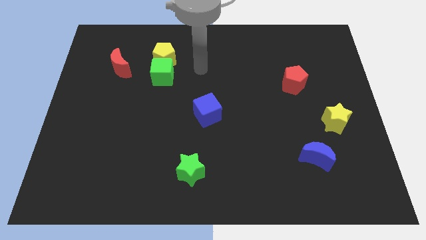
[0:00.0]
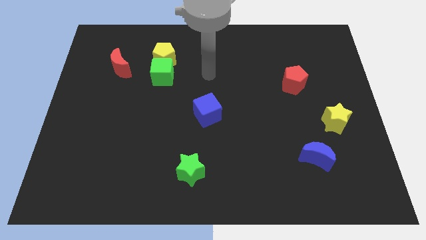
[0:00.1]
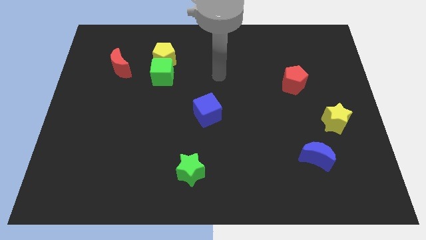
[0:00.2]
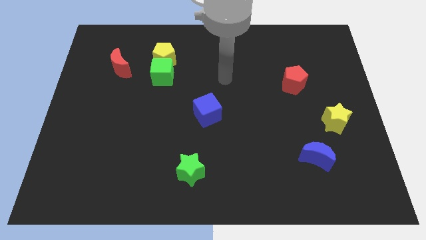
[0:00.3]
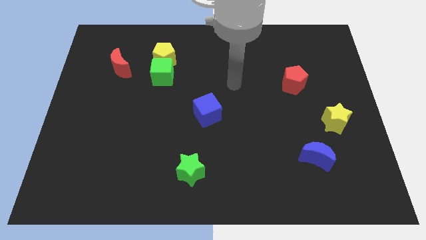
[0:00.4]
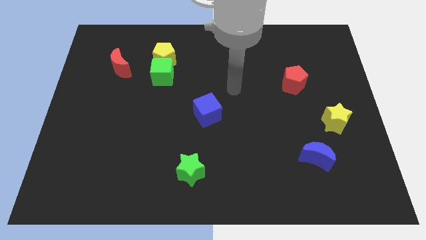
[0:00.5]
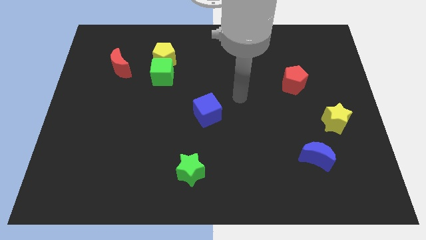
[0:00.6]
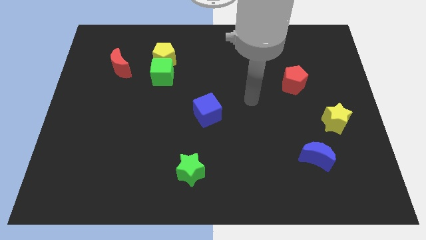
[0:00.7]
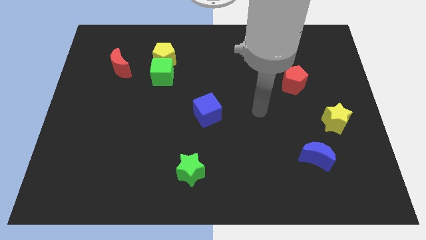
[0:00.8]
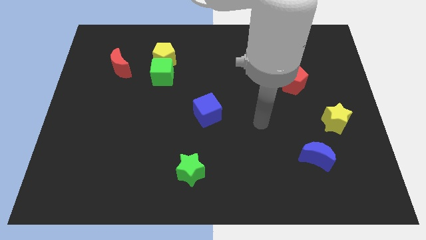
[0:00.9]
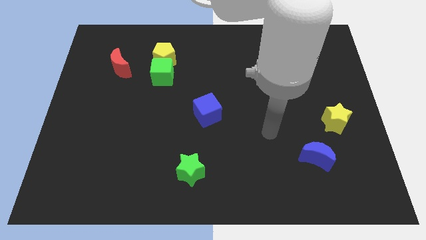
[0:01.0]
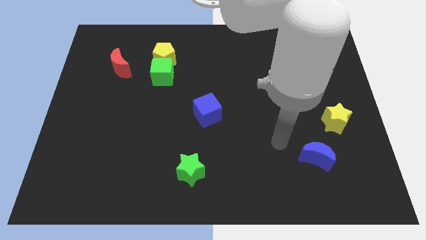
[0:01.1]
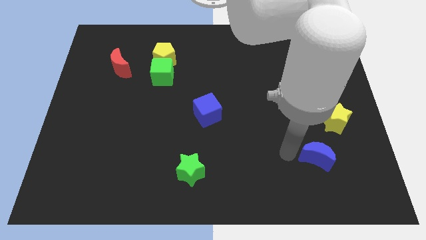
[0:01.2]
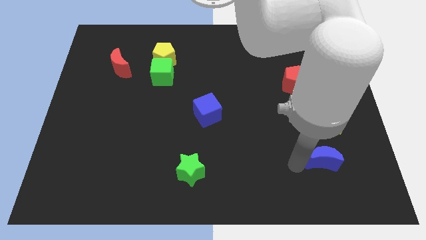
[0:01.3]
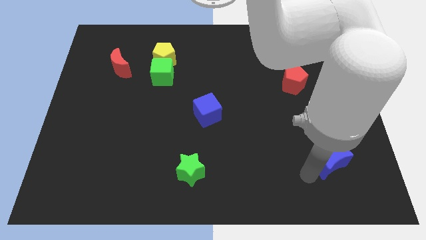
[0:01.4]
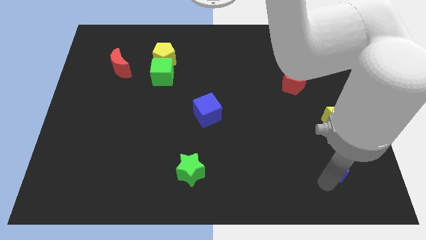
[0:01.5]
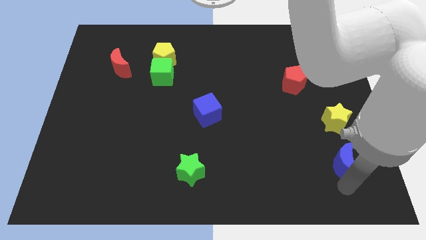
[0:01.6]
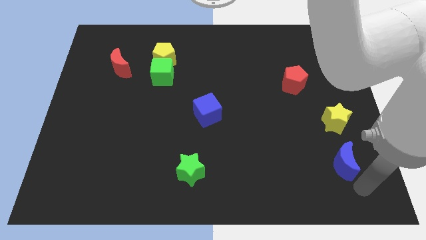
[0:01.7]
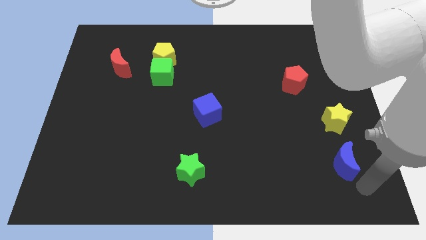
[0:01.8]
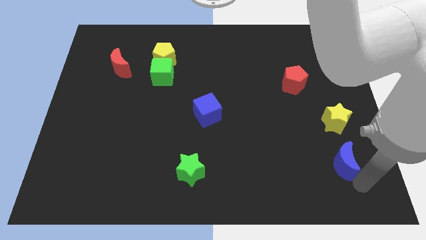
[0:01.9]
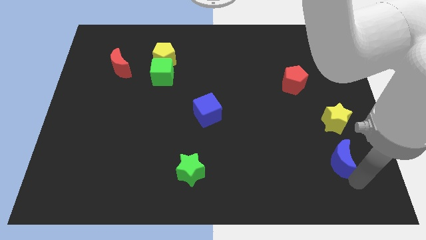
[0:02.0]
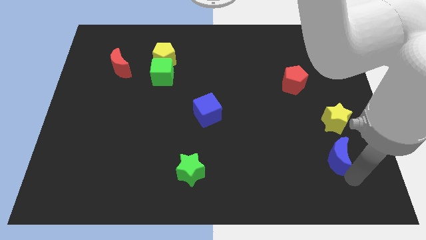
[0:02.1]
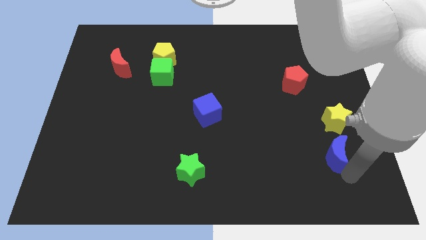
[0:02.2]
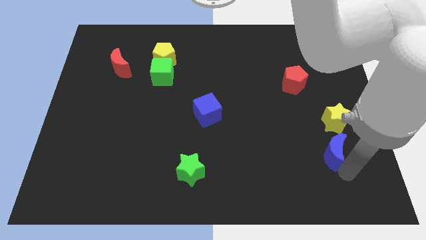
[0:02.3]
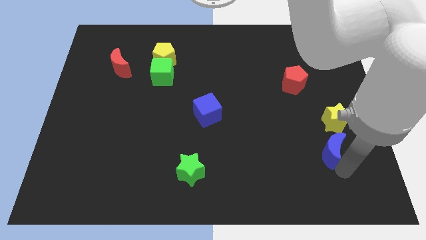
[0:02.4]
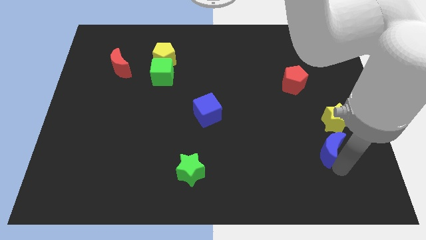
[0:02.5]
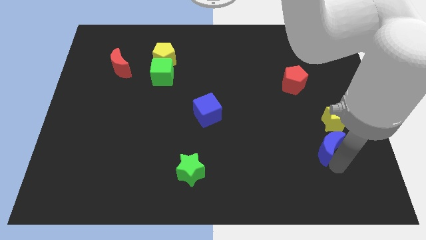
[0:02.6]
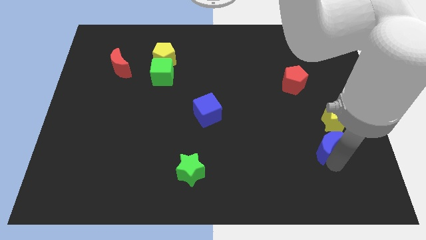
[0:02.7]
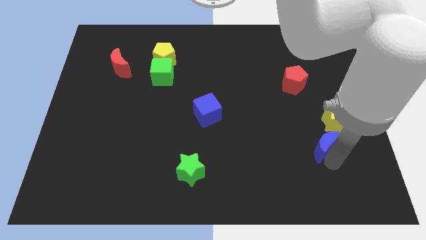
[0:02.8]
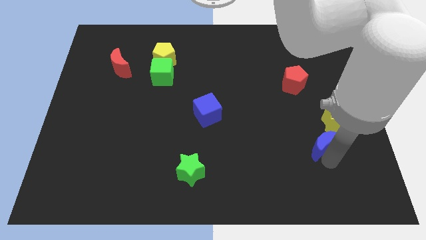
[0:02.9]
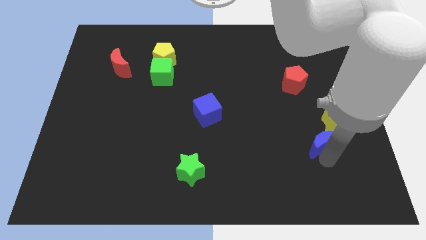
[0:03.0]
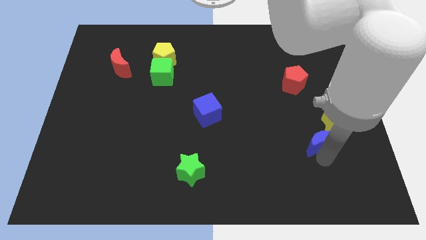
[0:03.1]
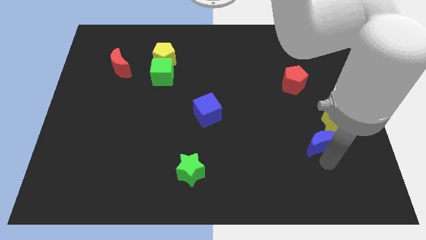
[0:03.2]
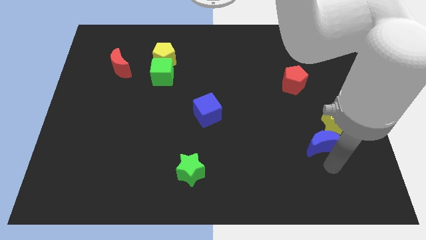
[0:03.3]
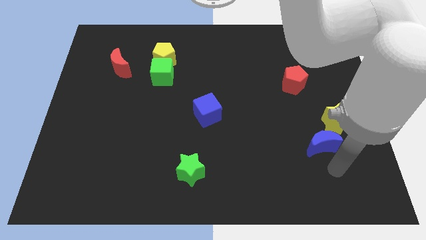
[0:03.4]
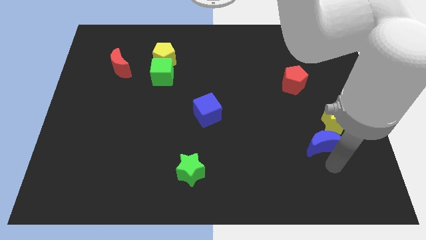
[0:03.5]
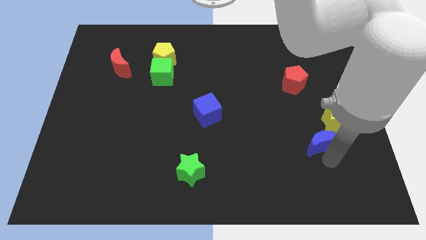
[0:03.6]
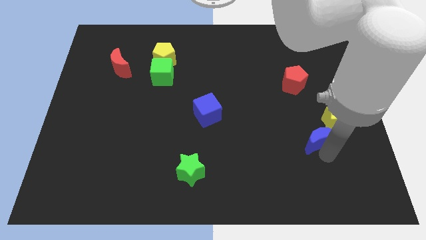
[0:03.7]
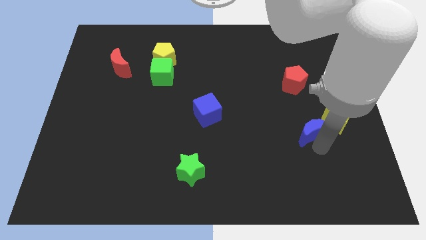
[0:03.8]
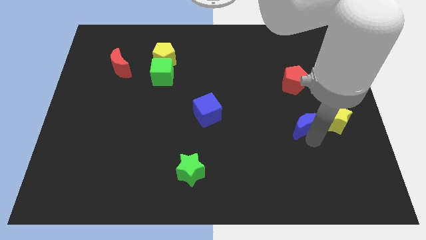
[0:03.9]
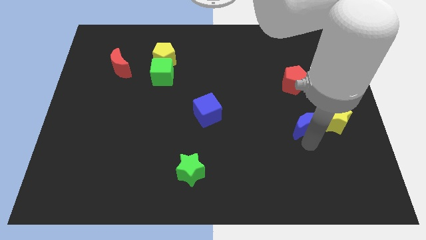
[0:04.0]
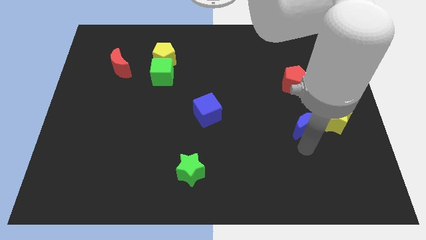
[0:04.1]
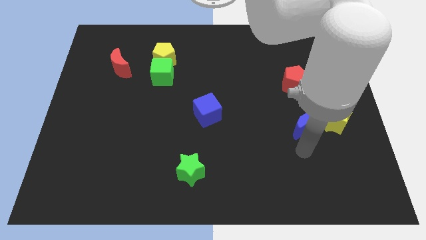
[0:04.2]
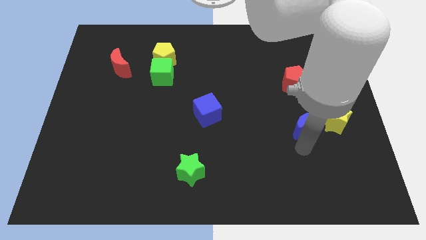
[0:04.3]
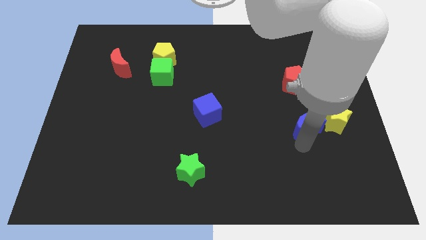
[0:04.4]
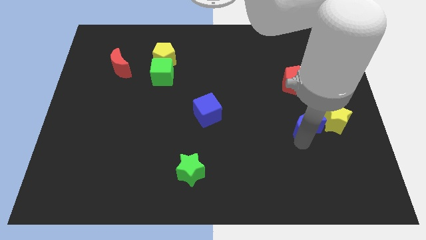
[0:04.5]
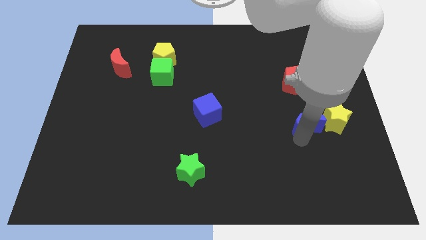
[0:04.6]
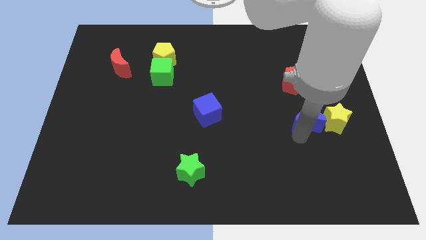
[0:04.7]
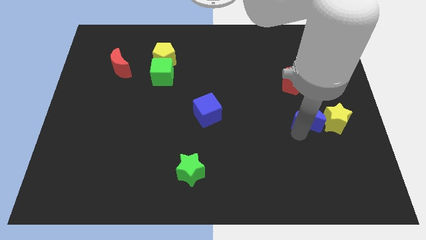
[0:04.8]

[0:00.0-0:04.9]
push the blue moon to the top left of the yellow star

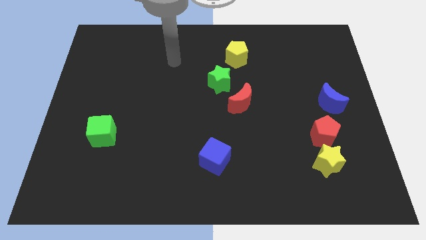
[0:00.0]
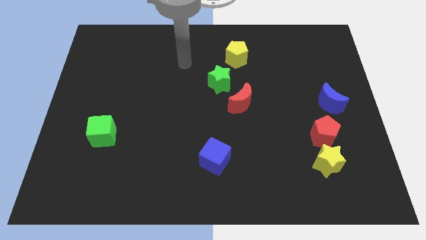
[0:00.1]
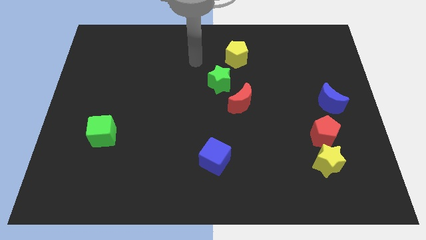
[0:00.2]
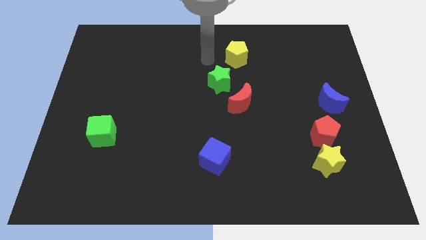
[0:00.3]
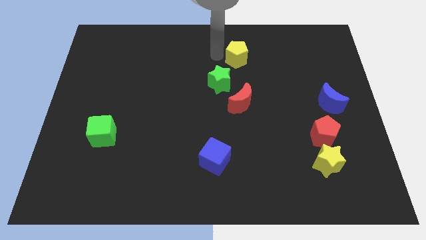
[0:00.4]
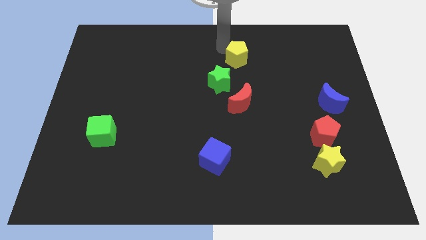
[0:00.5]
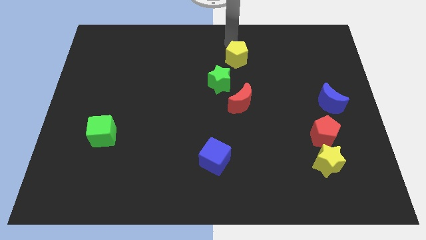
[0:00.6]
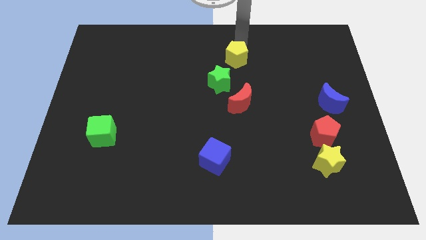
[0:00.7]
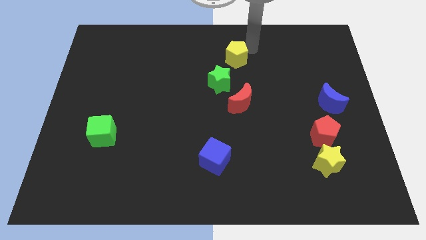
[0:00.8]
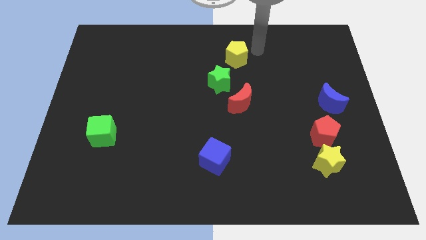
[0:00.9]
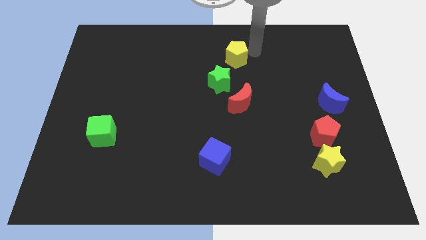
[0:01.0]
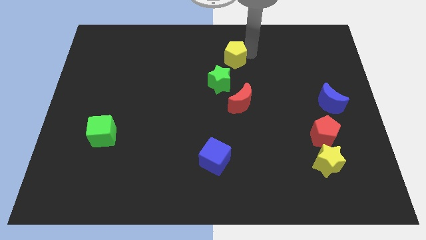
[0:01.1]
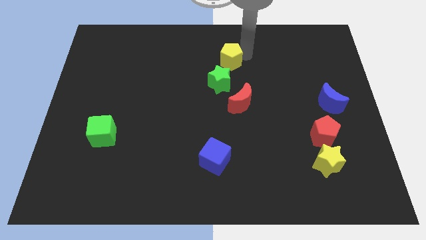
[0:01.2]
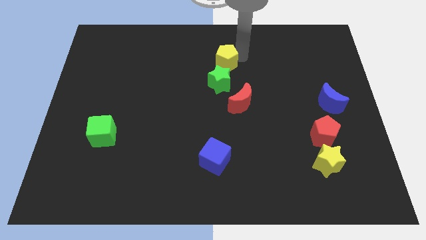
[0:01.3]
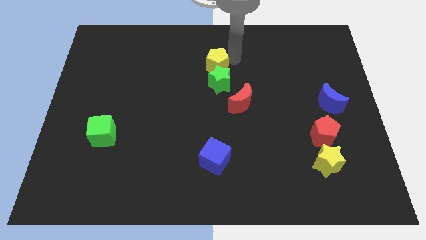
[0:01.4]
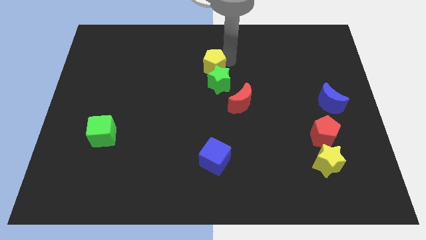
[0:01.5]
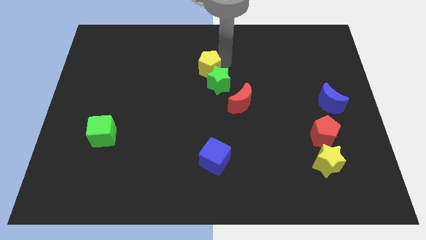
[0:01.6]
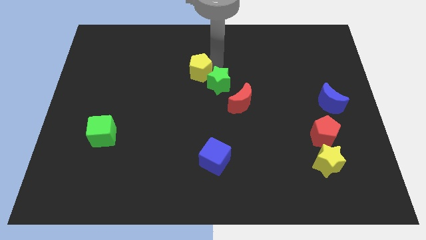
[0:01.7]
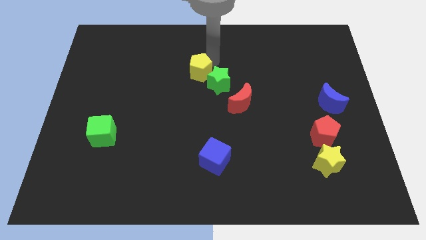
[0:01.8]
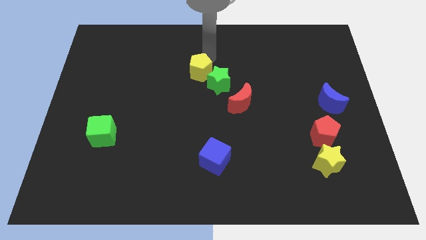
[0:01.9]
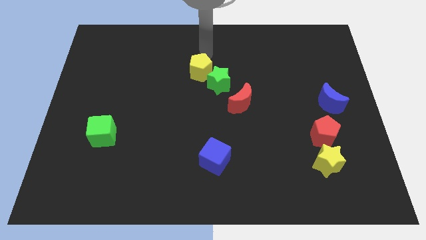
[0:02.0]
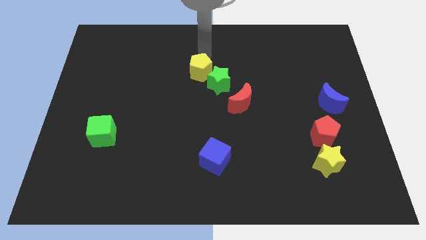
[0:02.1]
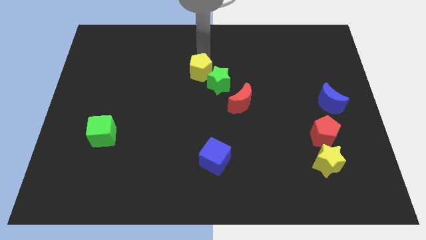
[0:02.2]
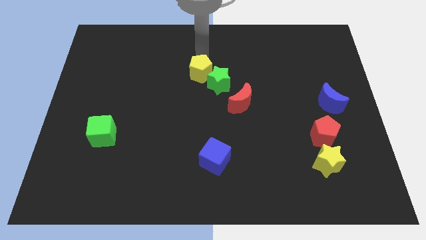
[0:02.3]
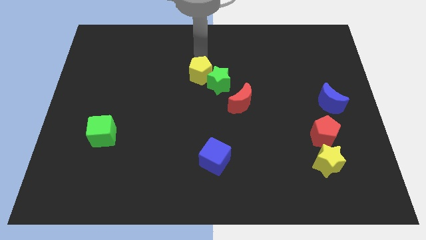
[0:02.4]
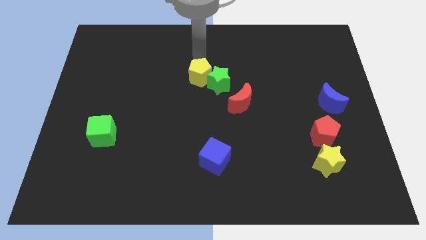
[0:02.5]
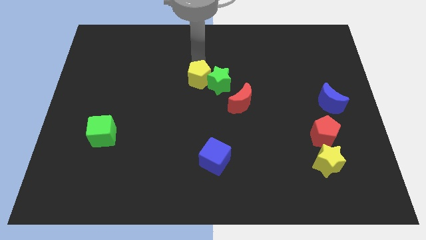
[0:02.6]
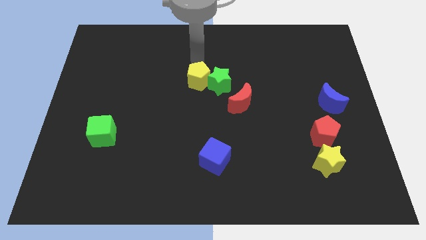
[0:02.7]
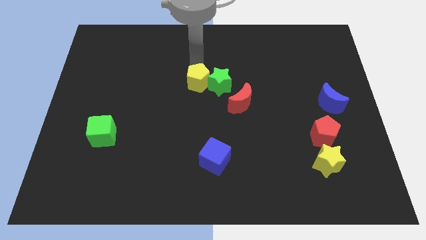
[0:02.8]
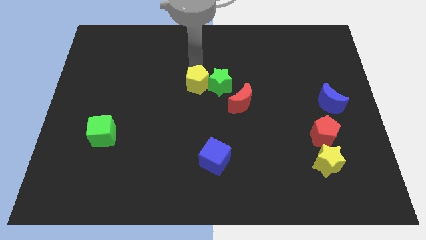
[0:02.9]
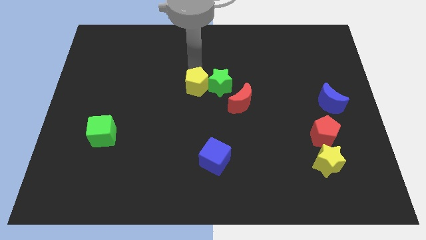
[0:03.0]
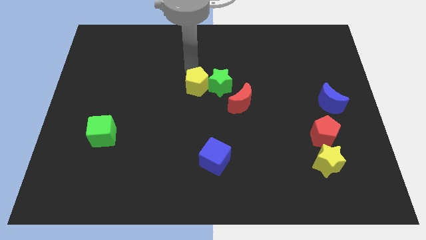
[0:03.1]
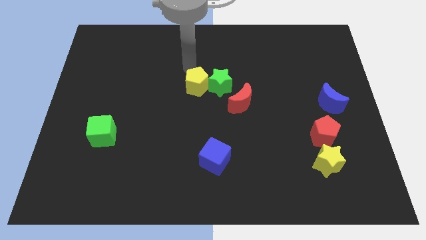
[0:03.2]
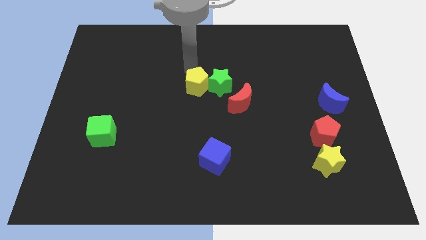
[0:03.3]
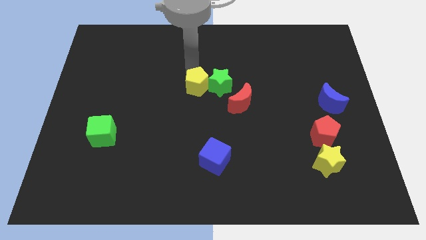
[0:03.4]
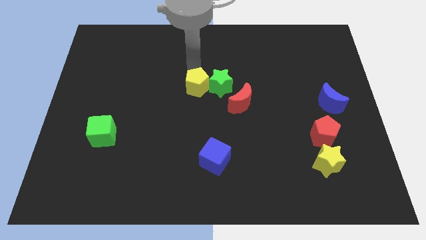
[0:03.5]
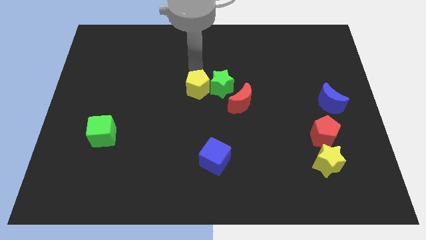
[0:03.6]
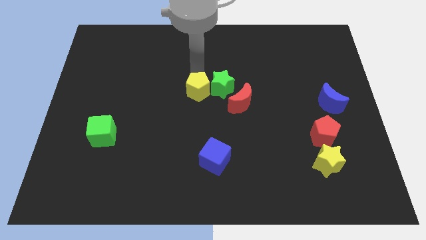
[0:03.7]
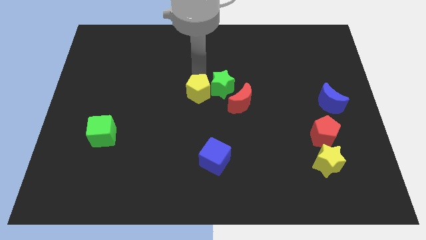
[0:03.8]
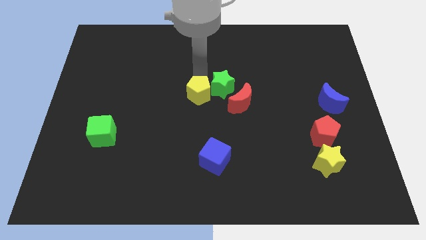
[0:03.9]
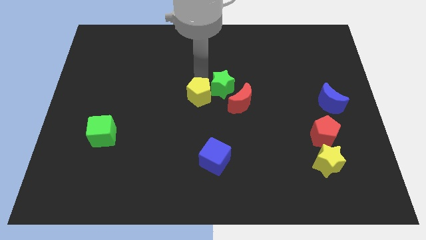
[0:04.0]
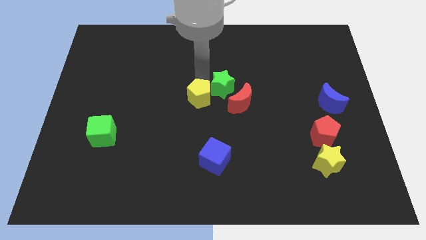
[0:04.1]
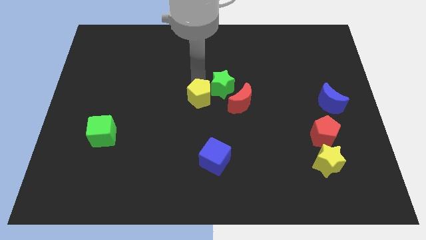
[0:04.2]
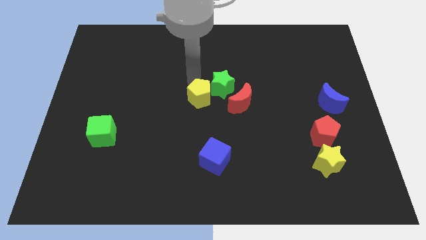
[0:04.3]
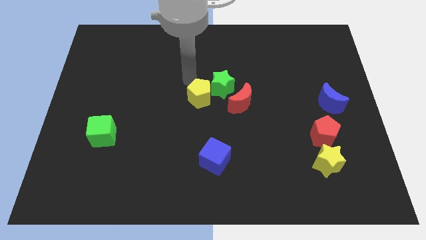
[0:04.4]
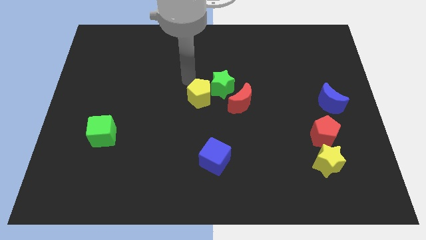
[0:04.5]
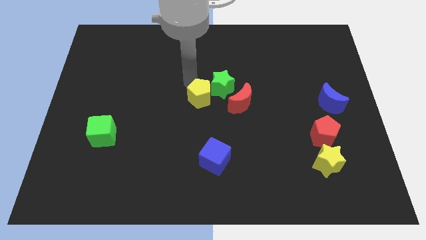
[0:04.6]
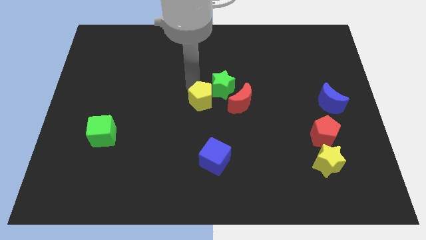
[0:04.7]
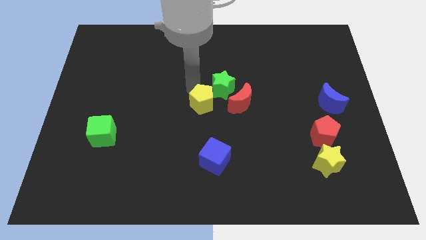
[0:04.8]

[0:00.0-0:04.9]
push the yellow pentagon to the bottom side of the green star
